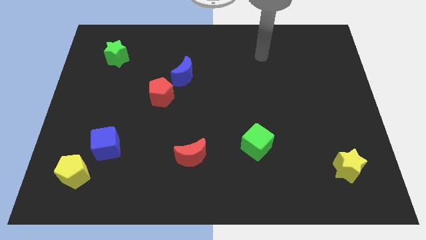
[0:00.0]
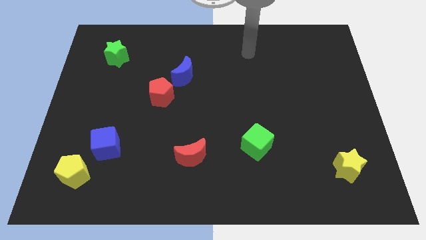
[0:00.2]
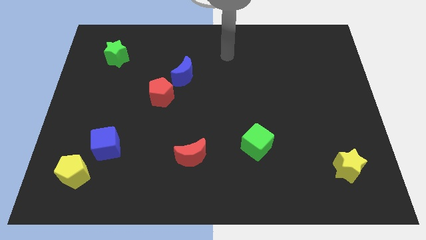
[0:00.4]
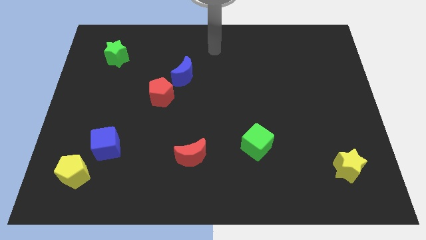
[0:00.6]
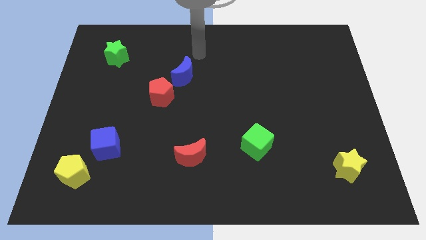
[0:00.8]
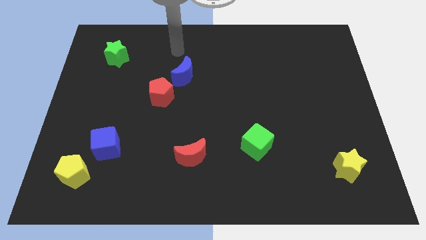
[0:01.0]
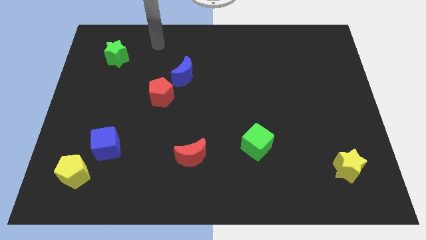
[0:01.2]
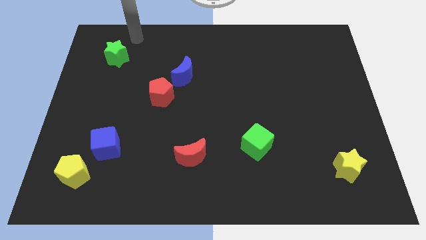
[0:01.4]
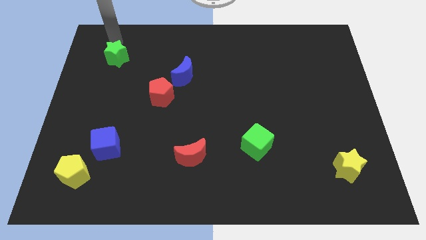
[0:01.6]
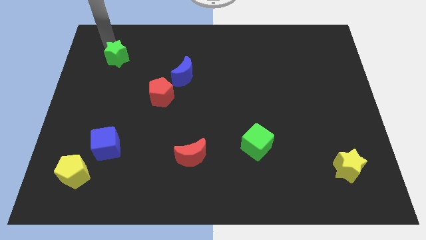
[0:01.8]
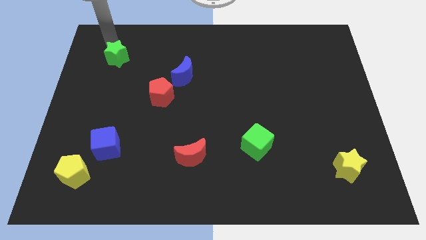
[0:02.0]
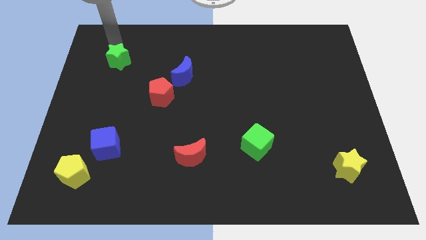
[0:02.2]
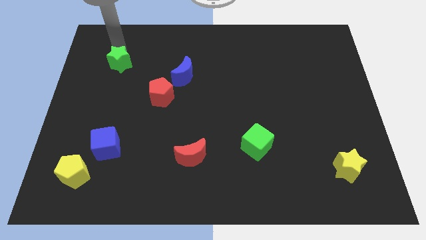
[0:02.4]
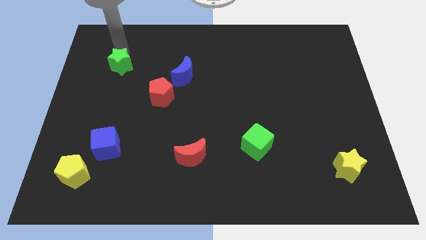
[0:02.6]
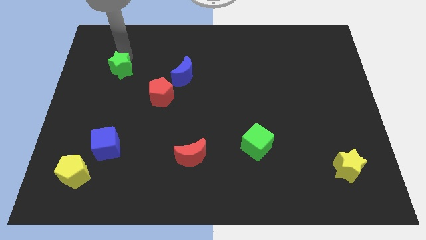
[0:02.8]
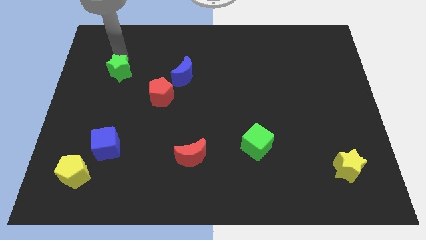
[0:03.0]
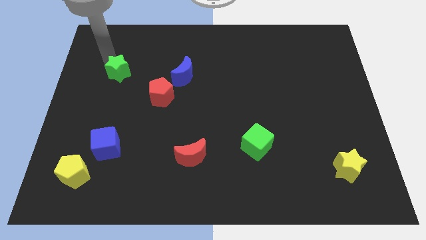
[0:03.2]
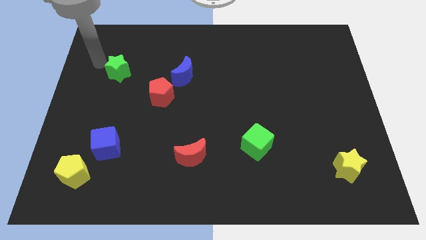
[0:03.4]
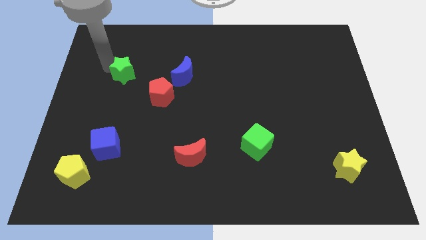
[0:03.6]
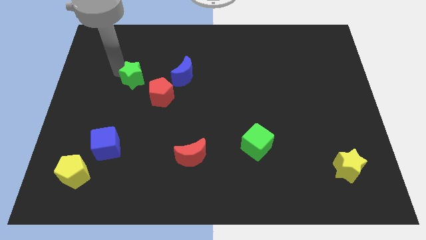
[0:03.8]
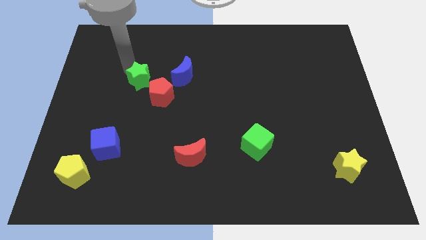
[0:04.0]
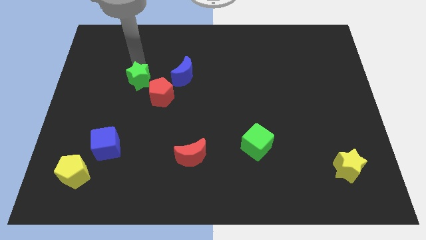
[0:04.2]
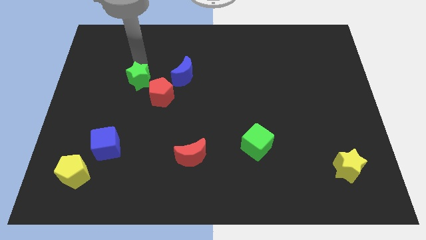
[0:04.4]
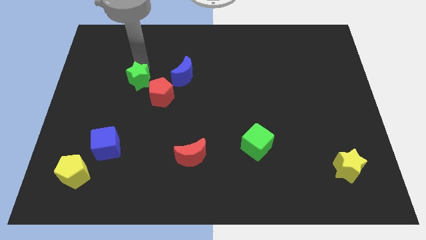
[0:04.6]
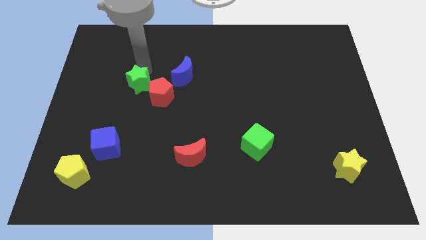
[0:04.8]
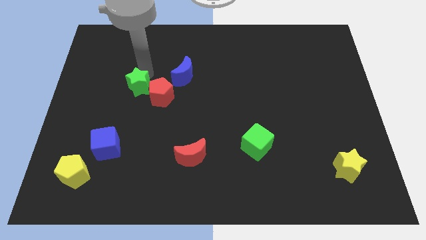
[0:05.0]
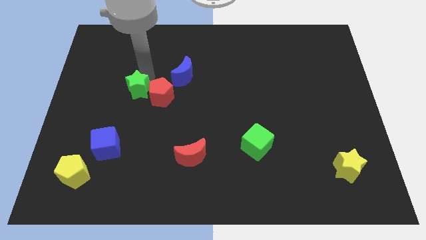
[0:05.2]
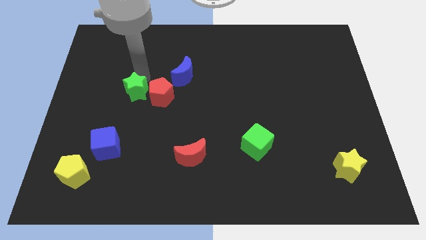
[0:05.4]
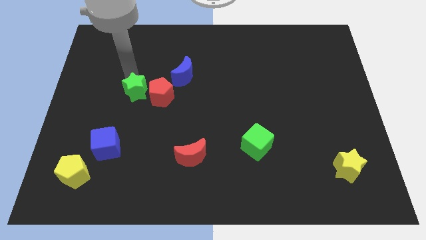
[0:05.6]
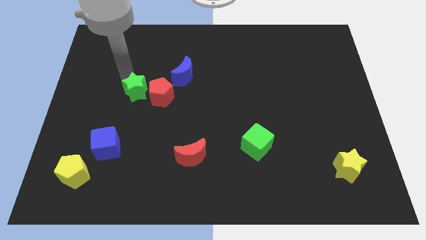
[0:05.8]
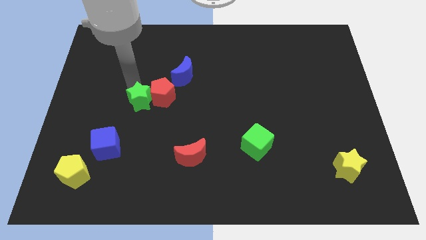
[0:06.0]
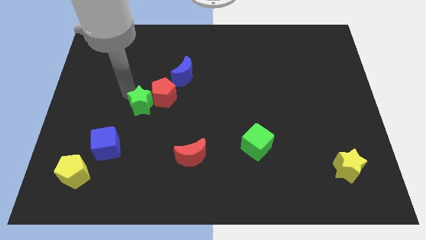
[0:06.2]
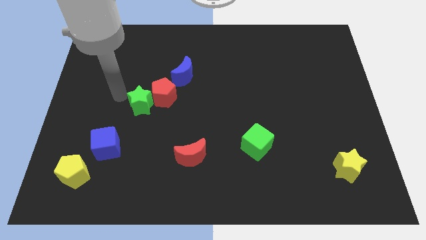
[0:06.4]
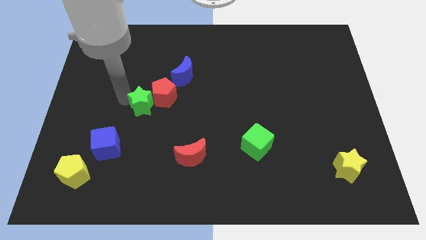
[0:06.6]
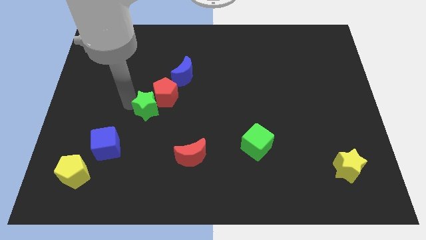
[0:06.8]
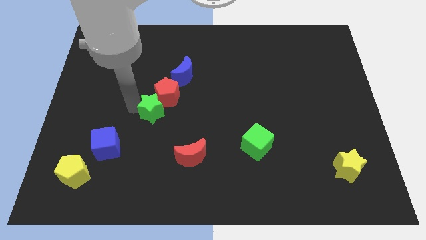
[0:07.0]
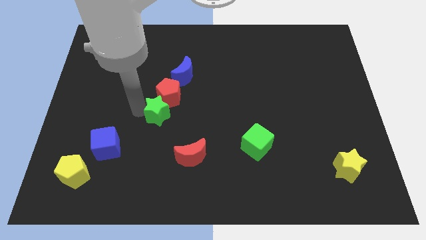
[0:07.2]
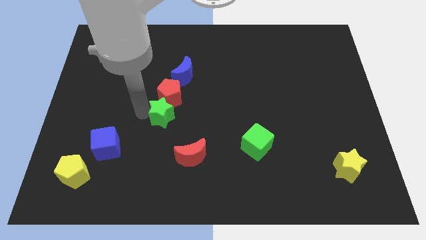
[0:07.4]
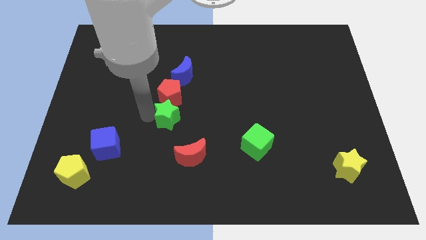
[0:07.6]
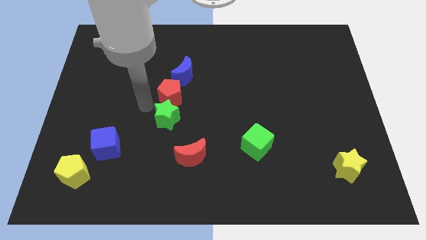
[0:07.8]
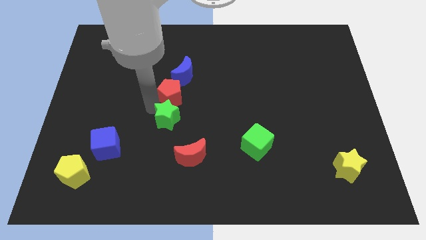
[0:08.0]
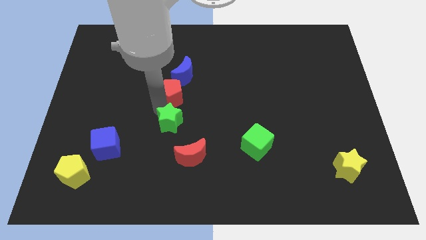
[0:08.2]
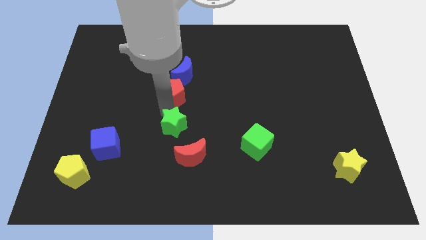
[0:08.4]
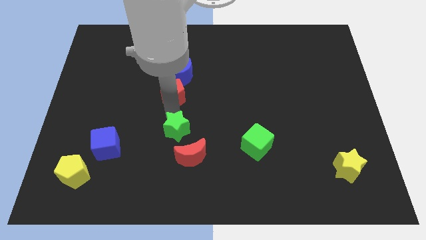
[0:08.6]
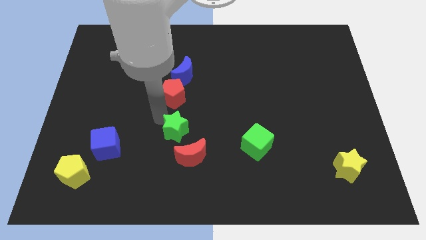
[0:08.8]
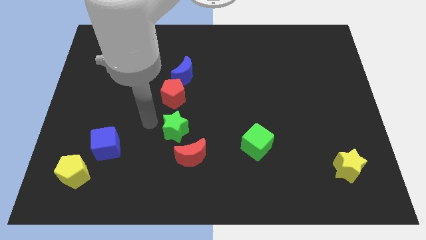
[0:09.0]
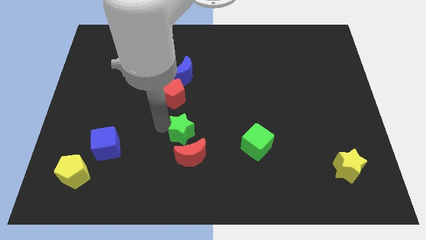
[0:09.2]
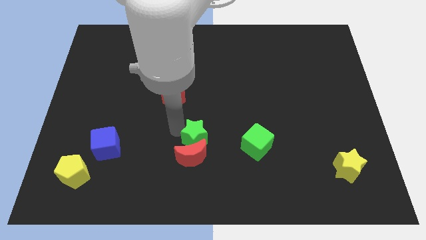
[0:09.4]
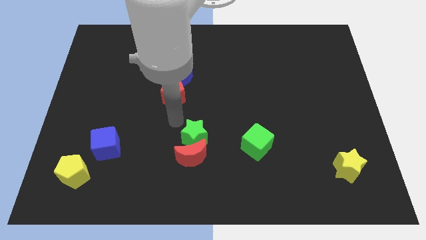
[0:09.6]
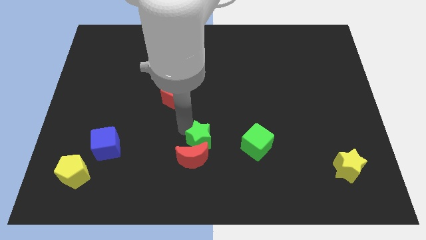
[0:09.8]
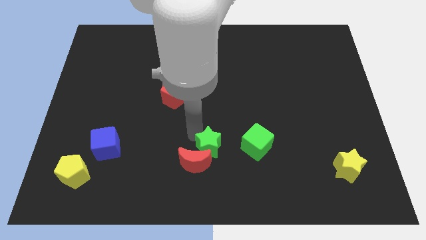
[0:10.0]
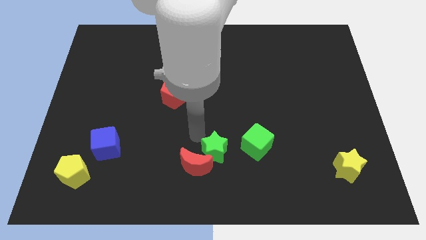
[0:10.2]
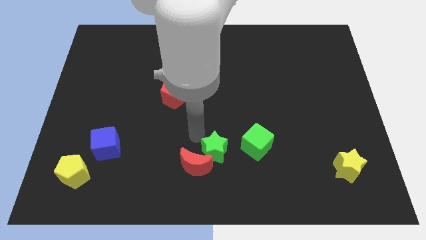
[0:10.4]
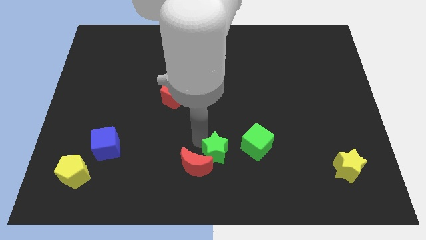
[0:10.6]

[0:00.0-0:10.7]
put the green star to the bottom left of the green cube

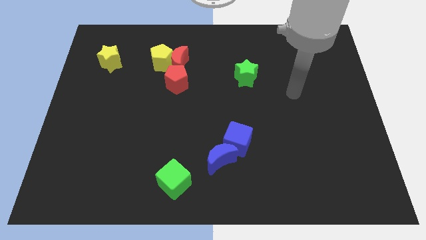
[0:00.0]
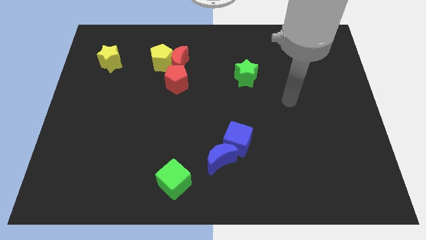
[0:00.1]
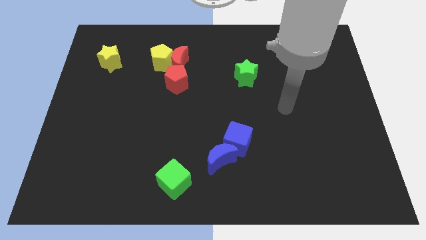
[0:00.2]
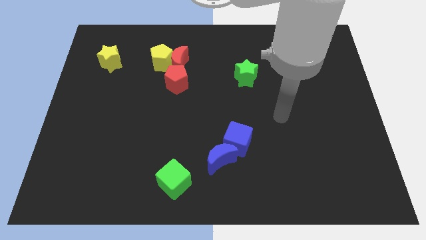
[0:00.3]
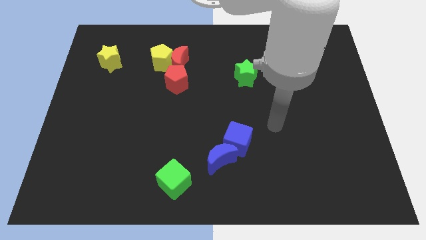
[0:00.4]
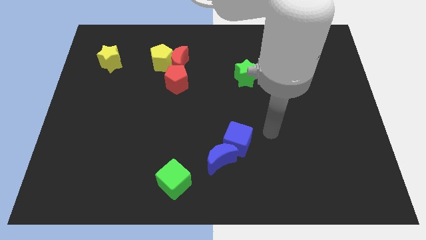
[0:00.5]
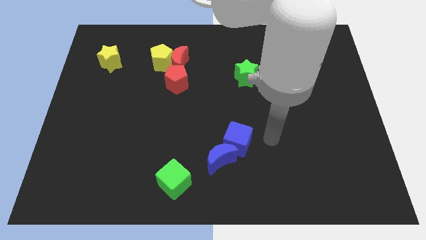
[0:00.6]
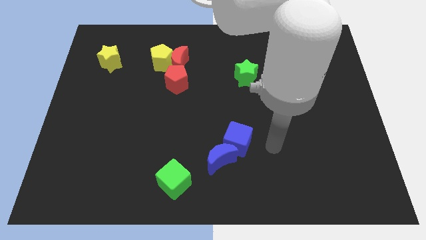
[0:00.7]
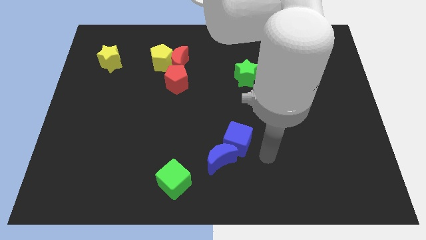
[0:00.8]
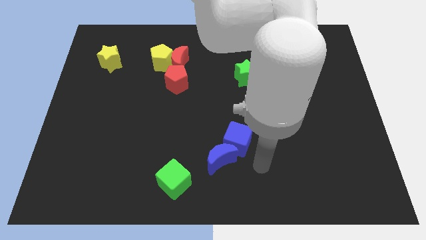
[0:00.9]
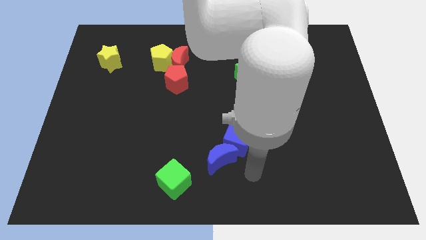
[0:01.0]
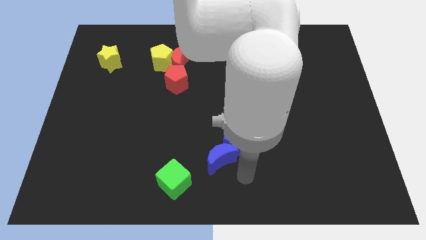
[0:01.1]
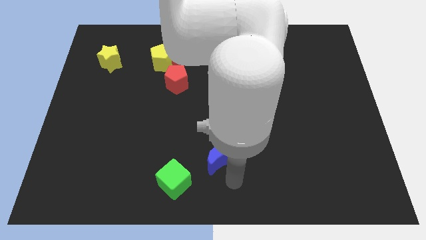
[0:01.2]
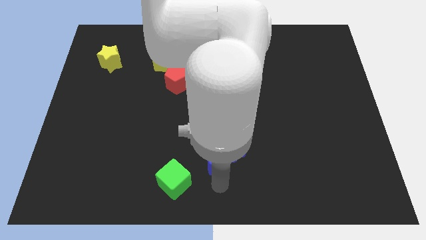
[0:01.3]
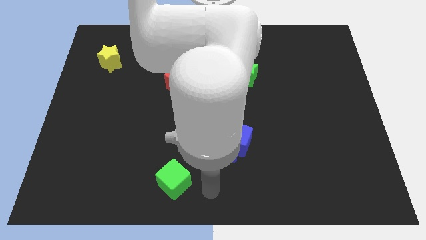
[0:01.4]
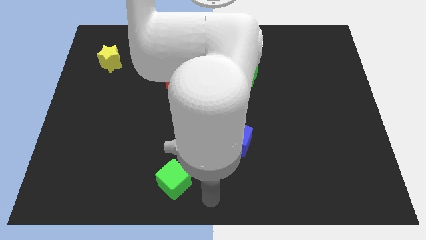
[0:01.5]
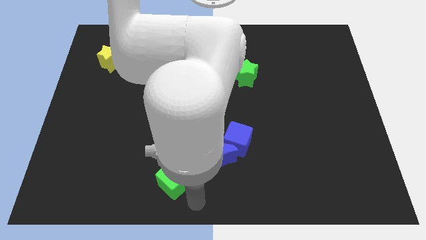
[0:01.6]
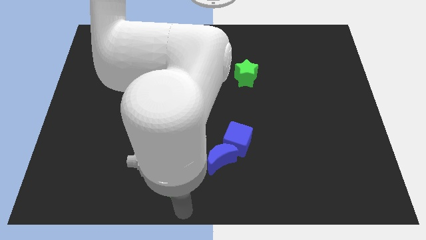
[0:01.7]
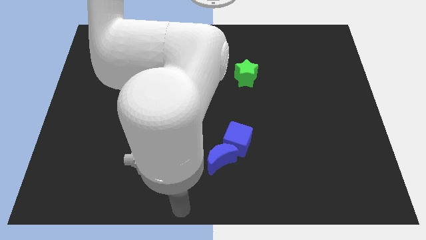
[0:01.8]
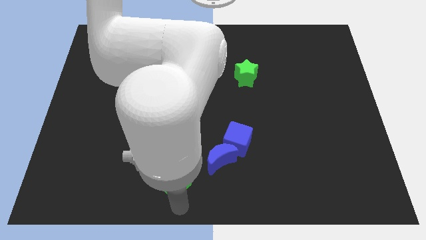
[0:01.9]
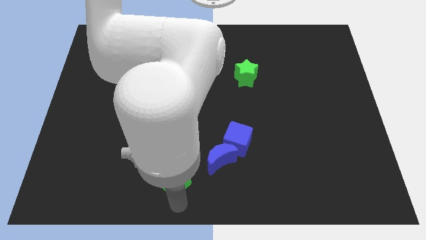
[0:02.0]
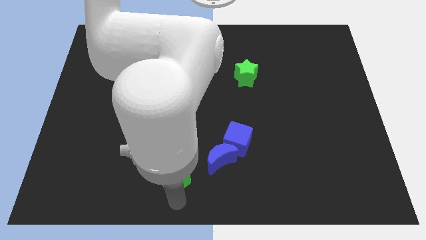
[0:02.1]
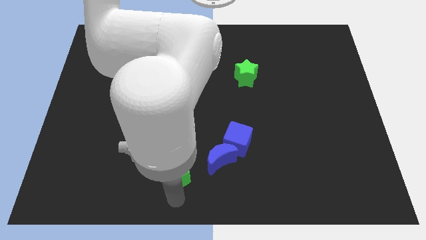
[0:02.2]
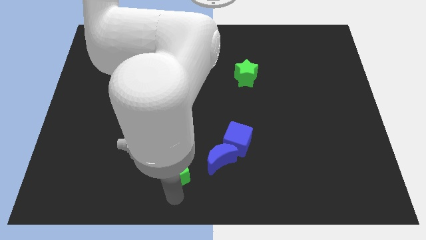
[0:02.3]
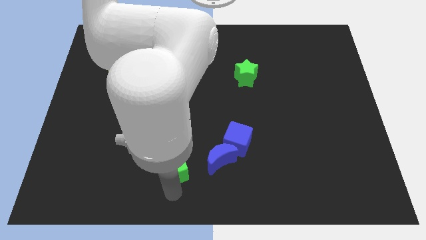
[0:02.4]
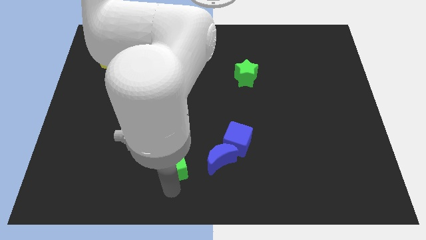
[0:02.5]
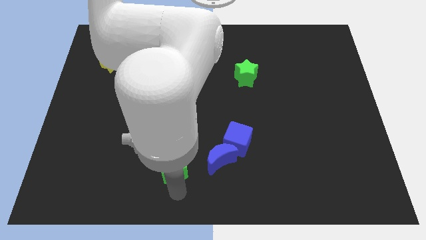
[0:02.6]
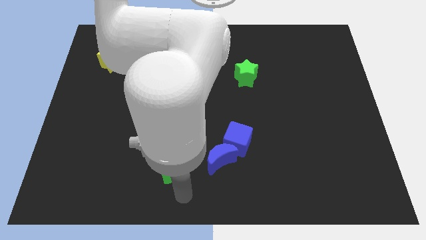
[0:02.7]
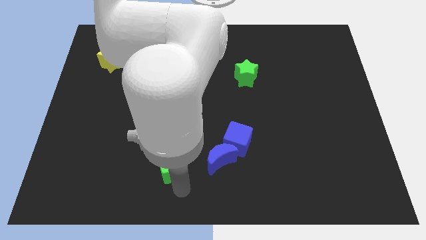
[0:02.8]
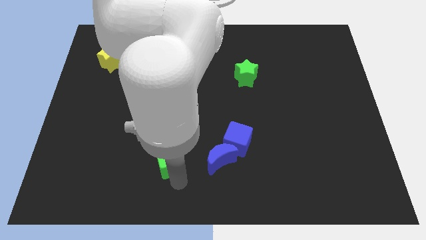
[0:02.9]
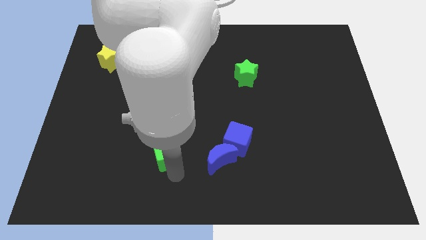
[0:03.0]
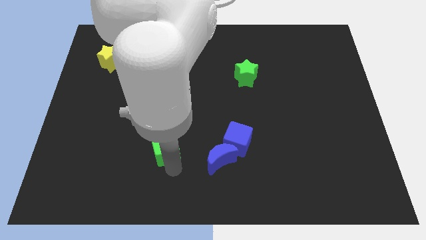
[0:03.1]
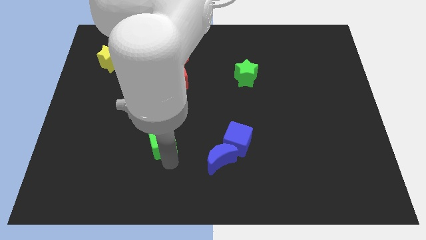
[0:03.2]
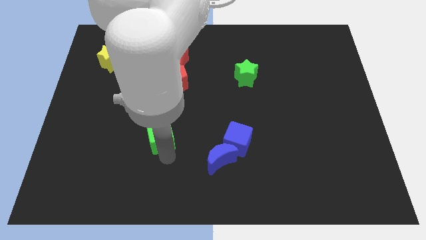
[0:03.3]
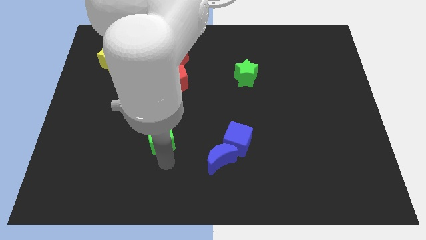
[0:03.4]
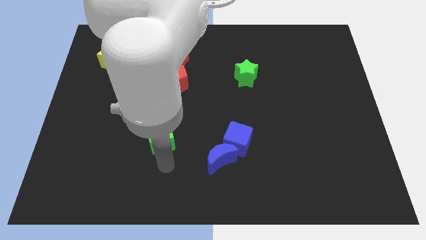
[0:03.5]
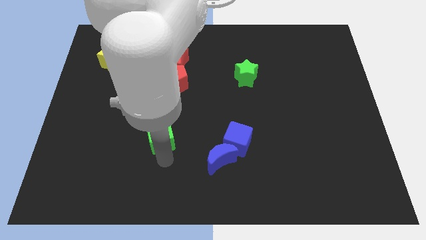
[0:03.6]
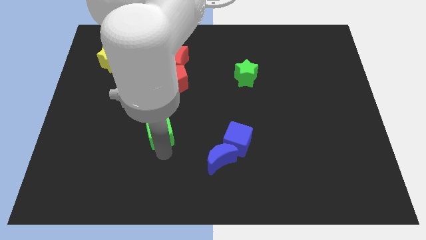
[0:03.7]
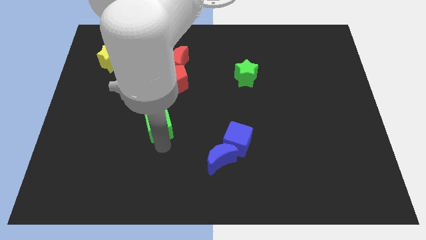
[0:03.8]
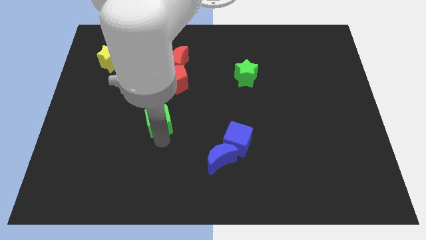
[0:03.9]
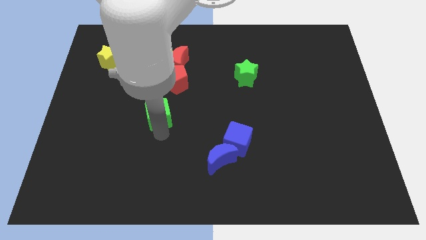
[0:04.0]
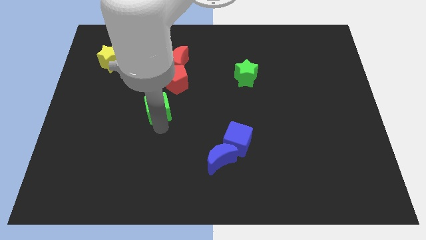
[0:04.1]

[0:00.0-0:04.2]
put the green cube to the bottom left side of the red pentagon
